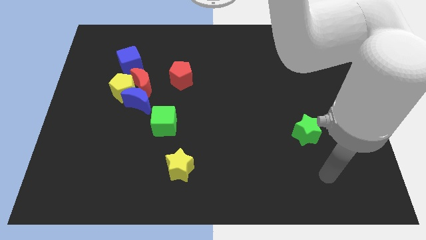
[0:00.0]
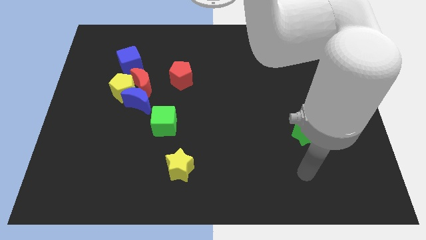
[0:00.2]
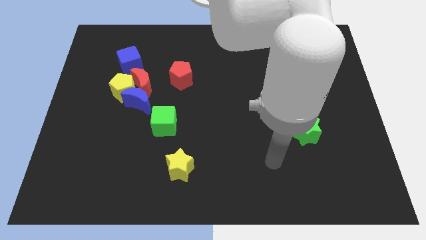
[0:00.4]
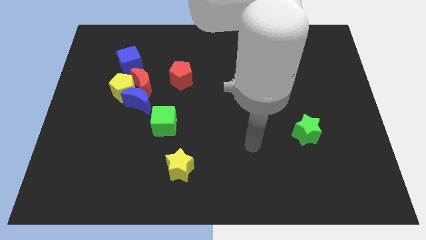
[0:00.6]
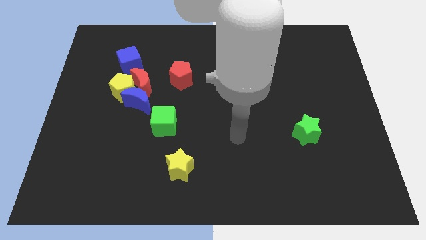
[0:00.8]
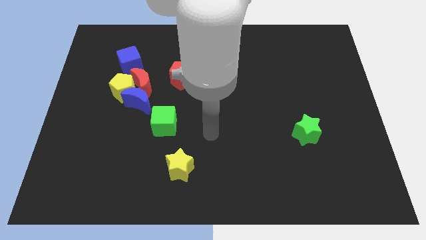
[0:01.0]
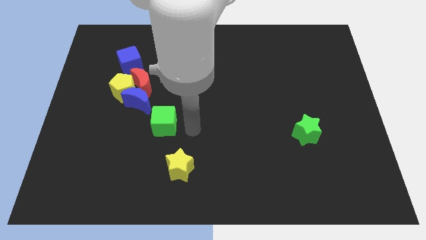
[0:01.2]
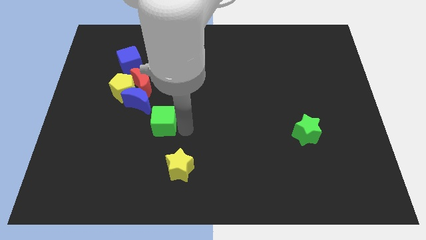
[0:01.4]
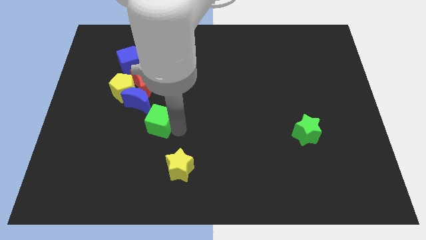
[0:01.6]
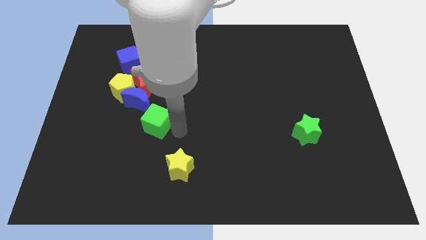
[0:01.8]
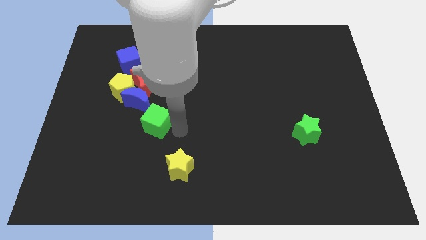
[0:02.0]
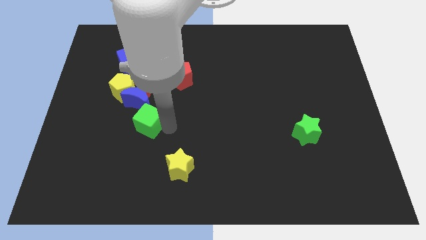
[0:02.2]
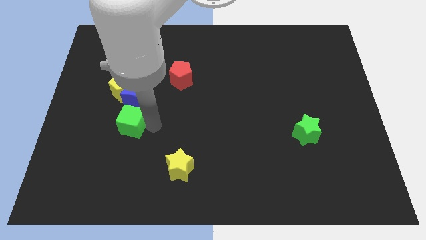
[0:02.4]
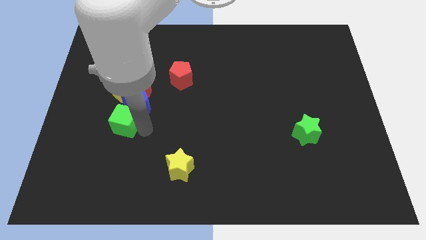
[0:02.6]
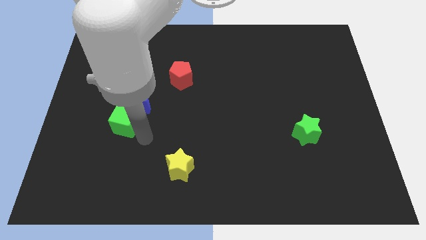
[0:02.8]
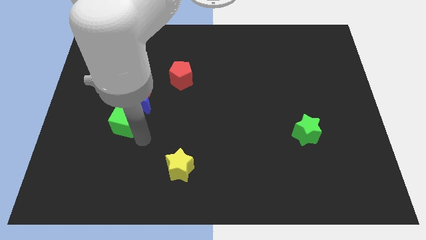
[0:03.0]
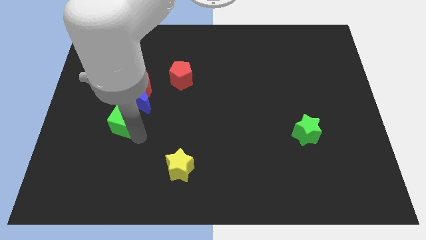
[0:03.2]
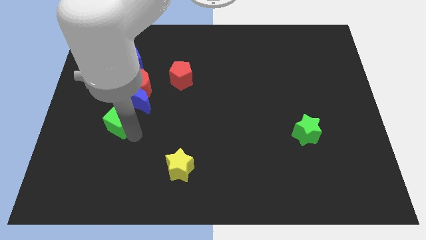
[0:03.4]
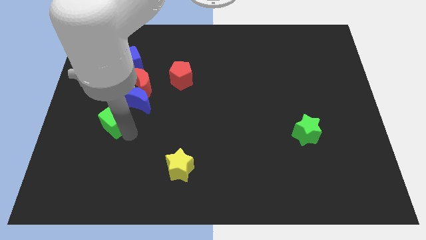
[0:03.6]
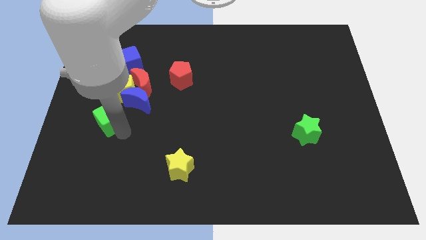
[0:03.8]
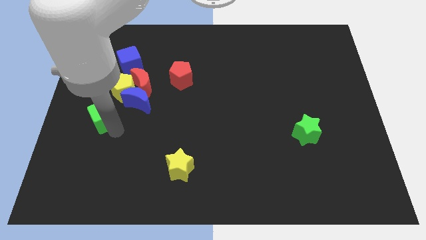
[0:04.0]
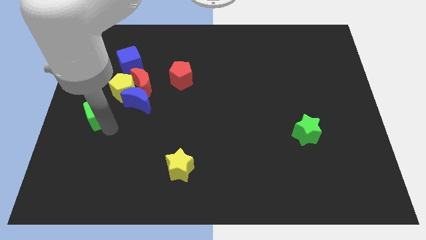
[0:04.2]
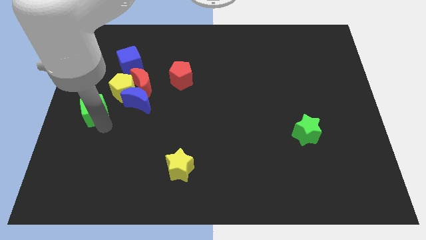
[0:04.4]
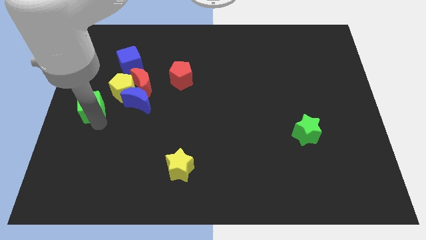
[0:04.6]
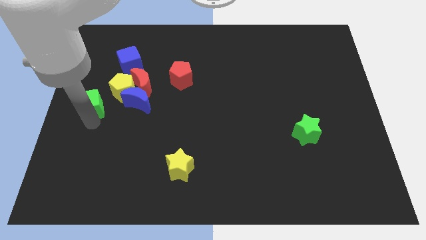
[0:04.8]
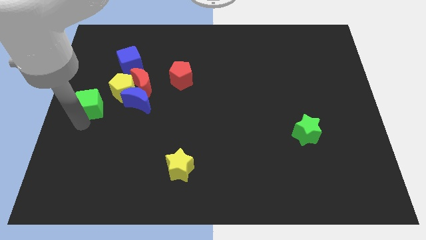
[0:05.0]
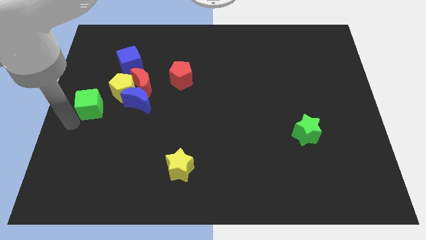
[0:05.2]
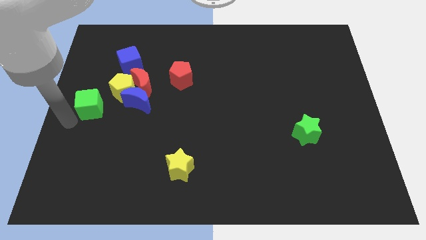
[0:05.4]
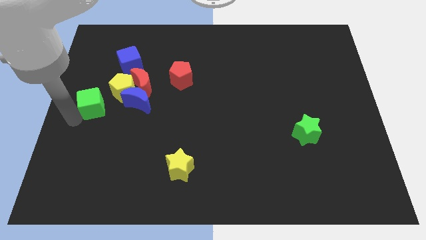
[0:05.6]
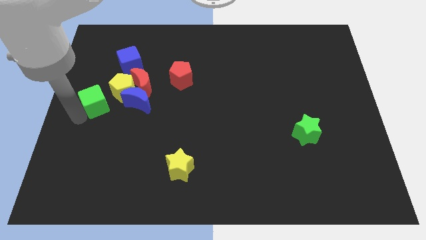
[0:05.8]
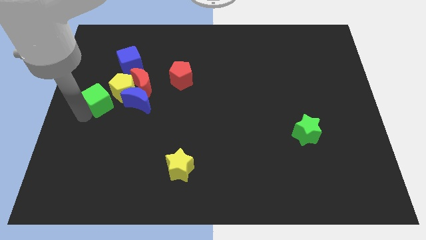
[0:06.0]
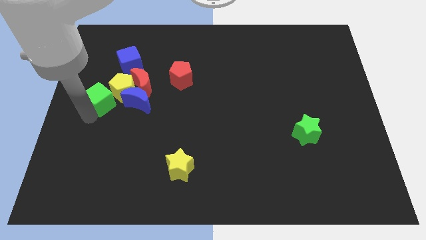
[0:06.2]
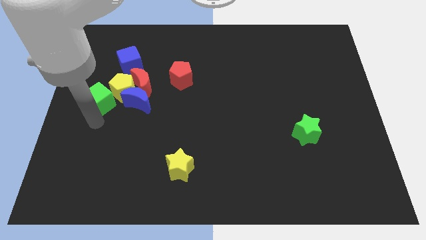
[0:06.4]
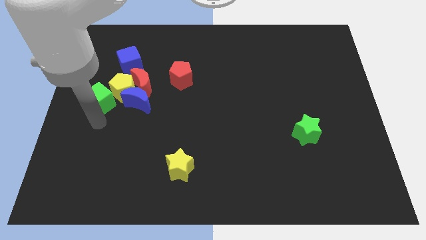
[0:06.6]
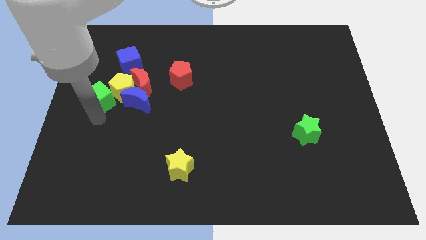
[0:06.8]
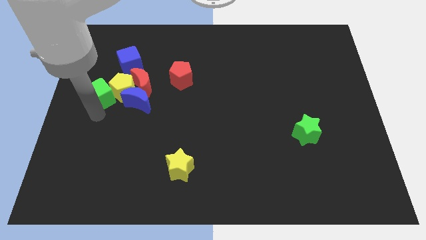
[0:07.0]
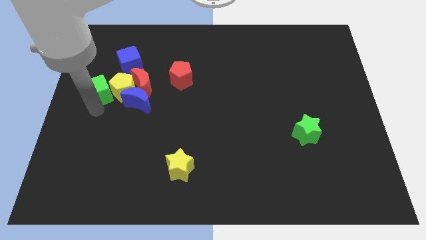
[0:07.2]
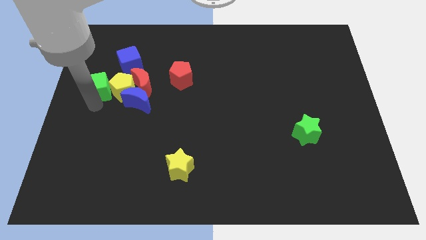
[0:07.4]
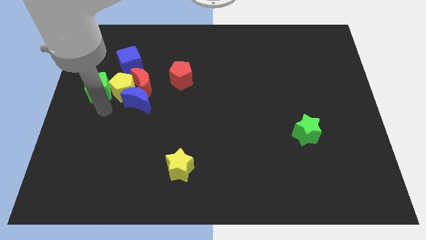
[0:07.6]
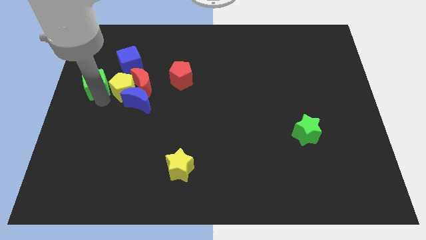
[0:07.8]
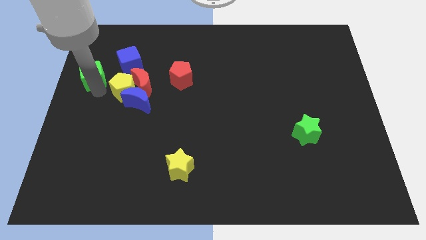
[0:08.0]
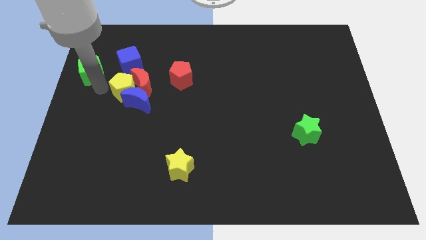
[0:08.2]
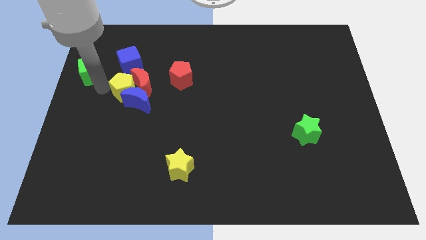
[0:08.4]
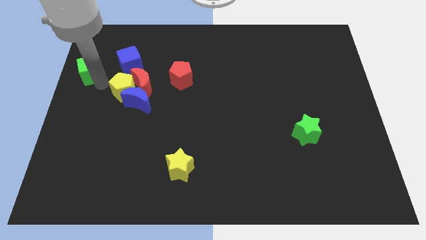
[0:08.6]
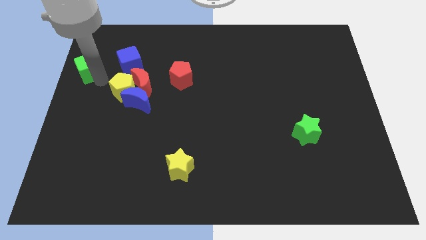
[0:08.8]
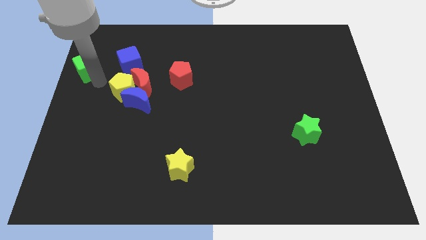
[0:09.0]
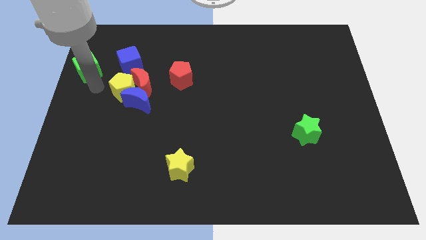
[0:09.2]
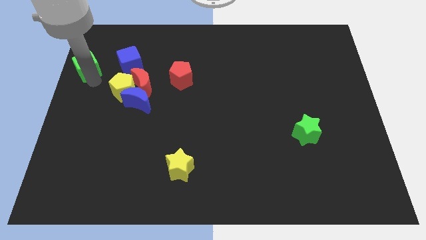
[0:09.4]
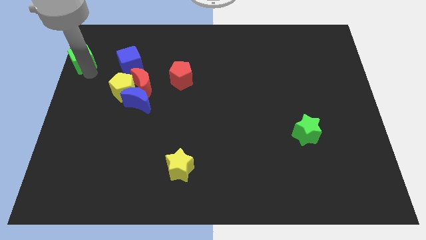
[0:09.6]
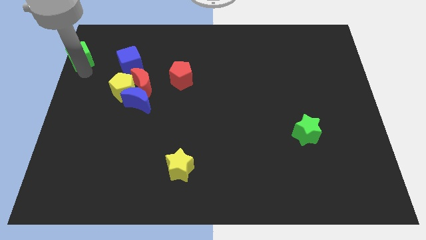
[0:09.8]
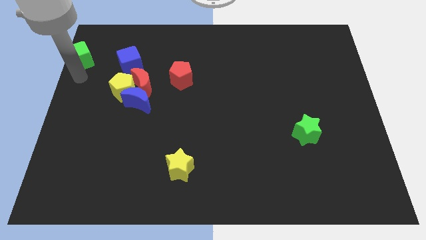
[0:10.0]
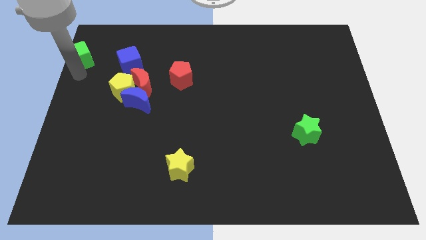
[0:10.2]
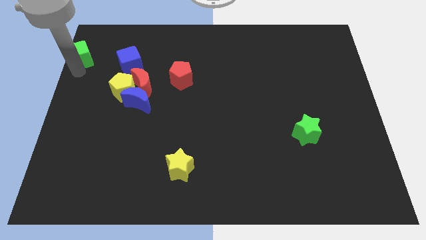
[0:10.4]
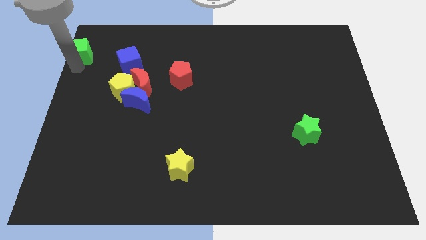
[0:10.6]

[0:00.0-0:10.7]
push the green cube to the top left corner

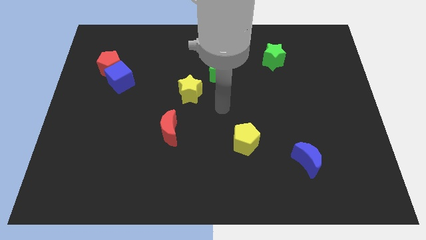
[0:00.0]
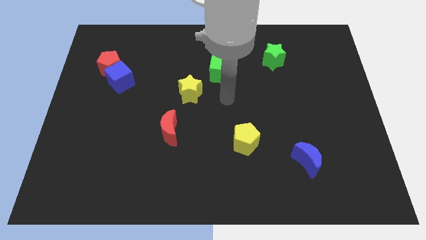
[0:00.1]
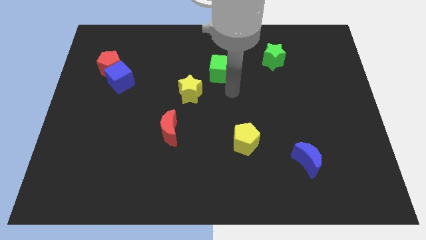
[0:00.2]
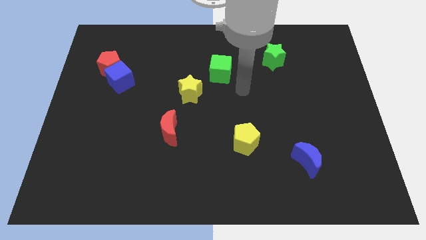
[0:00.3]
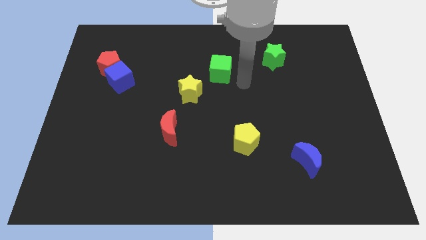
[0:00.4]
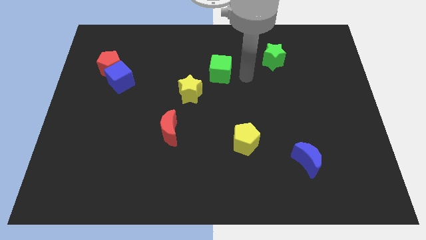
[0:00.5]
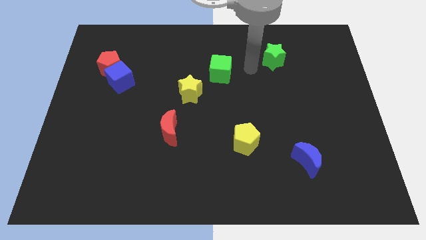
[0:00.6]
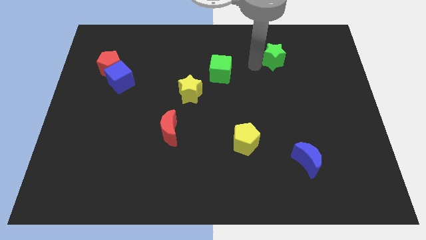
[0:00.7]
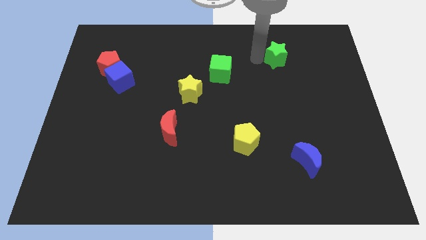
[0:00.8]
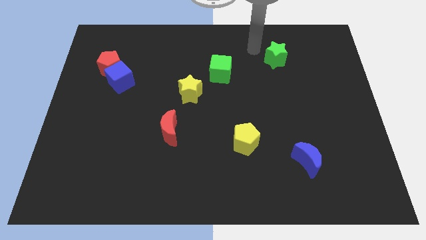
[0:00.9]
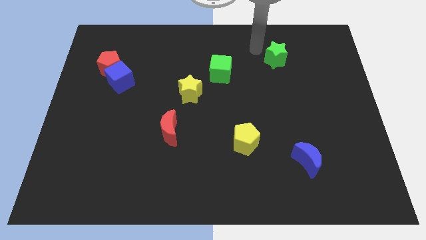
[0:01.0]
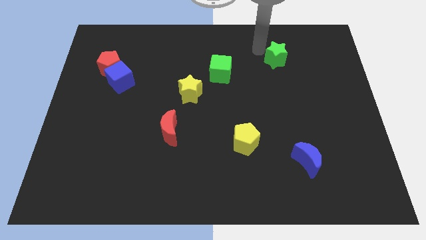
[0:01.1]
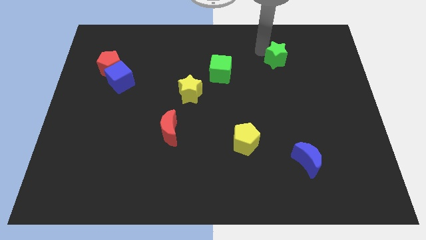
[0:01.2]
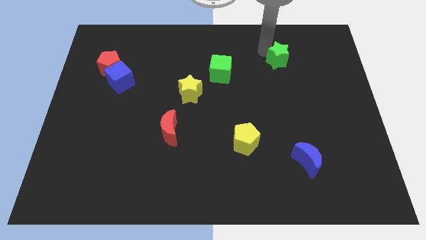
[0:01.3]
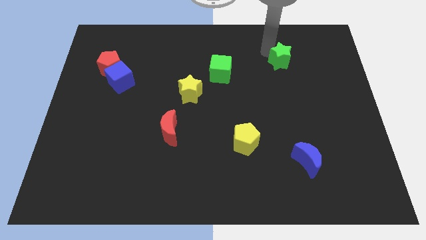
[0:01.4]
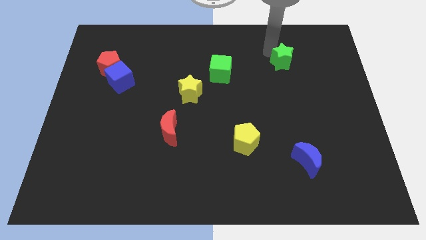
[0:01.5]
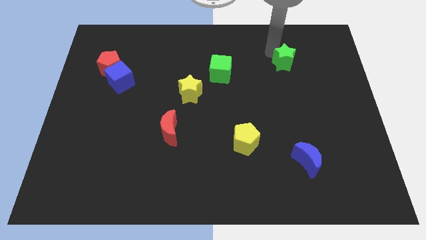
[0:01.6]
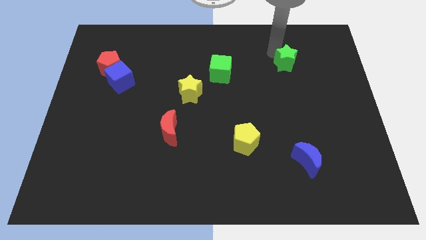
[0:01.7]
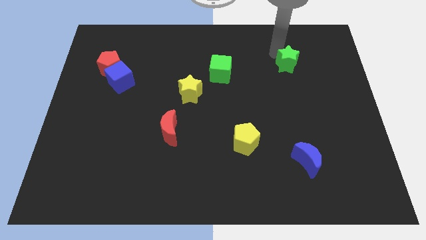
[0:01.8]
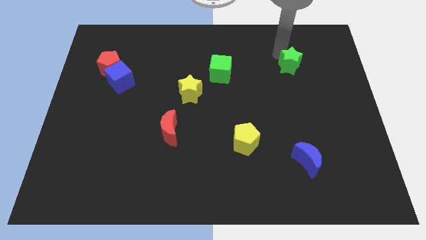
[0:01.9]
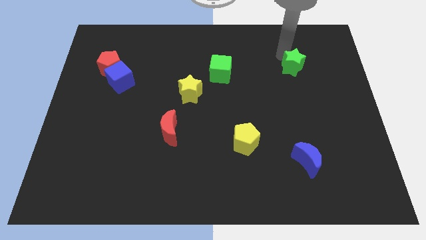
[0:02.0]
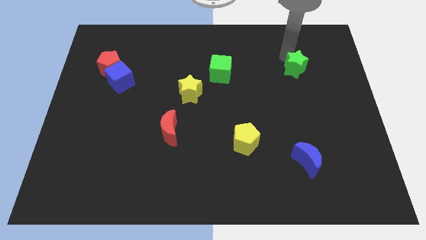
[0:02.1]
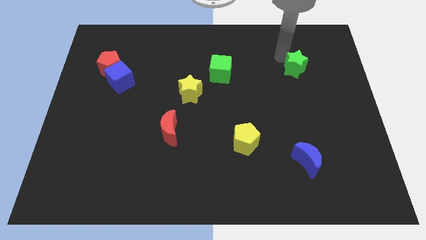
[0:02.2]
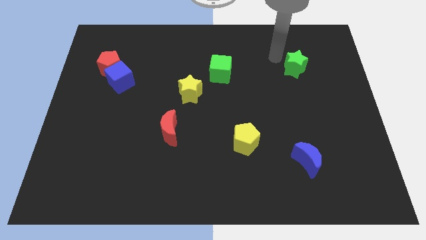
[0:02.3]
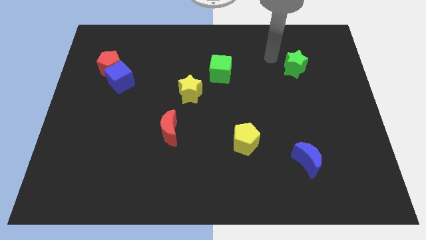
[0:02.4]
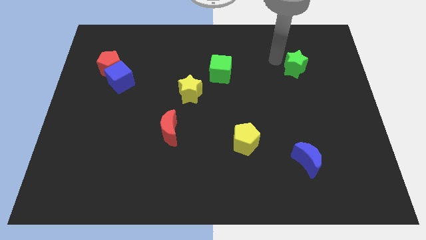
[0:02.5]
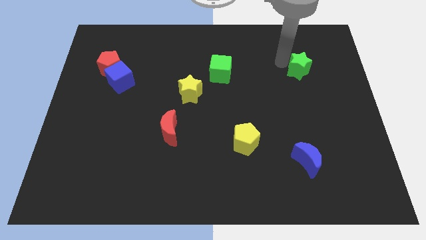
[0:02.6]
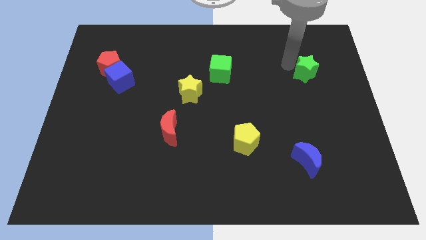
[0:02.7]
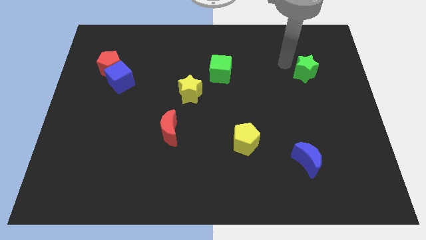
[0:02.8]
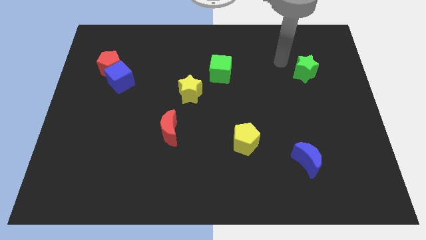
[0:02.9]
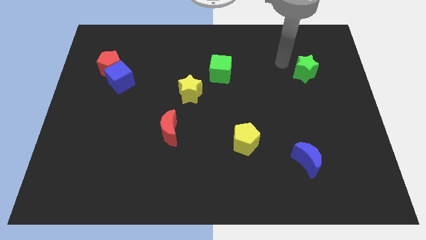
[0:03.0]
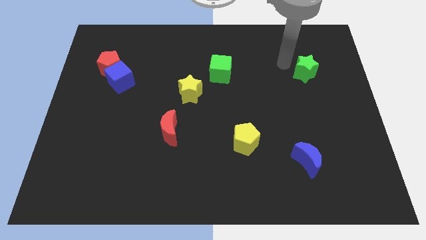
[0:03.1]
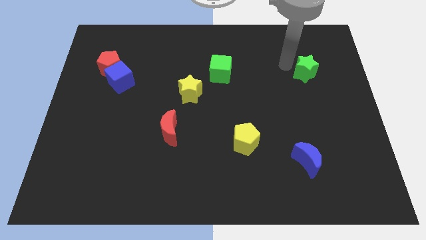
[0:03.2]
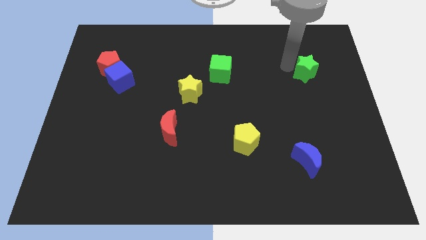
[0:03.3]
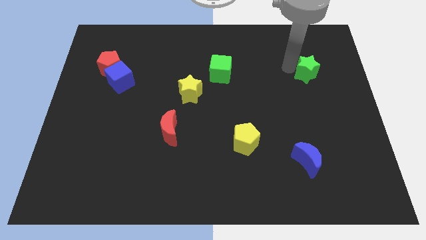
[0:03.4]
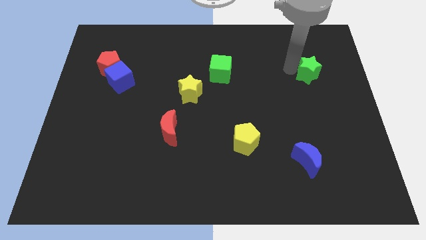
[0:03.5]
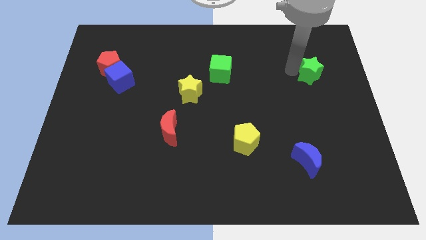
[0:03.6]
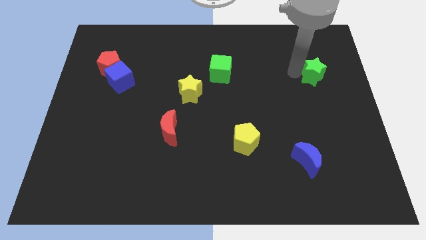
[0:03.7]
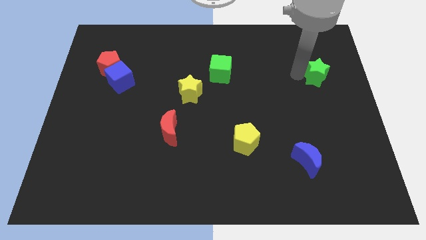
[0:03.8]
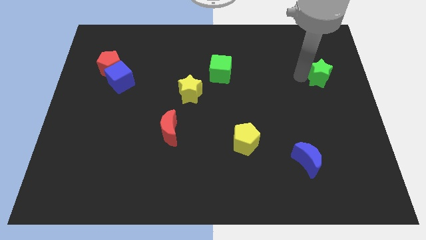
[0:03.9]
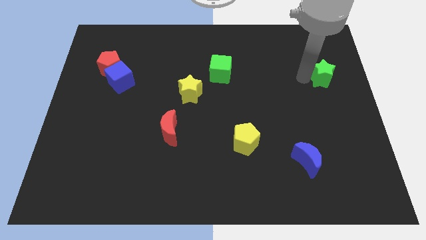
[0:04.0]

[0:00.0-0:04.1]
move the green star to the right side of the board
